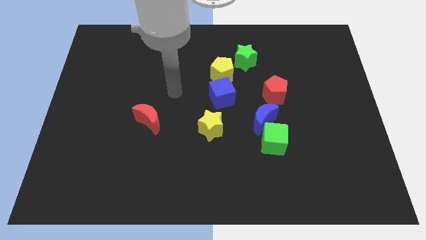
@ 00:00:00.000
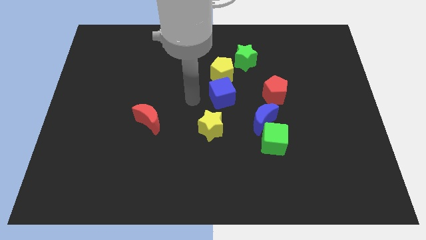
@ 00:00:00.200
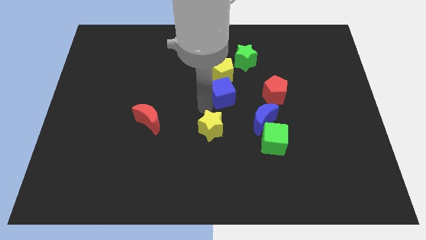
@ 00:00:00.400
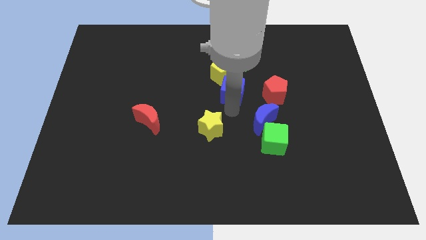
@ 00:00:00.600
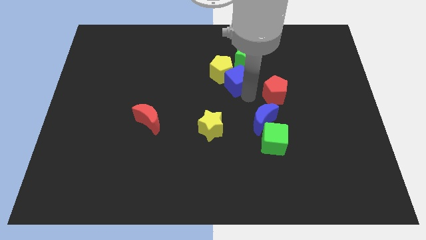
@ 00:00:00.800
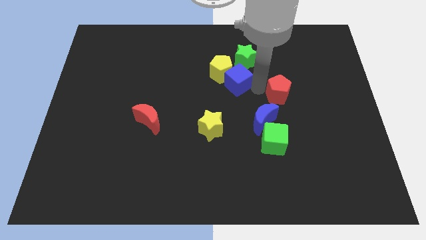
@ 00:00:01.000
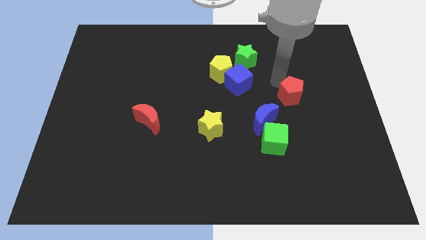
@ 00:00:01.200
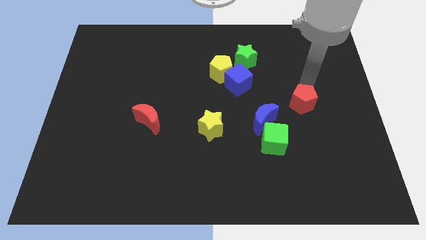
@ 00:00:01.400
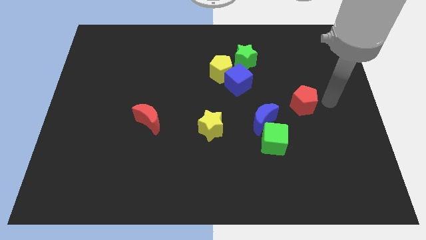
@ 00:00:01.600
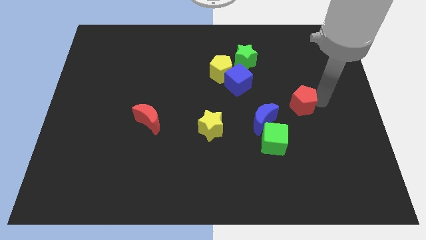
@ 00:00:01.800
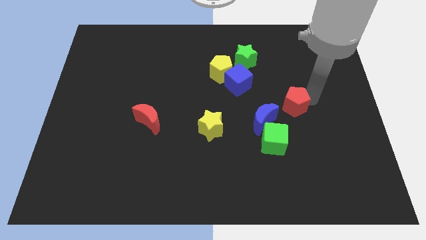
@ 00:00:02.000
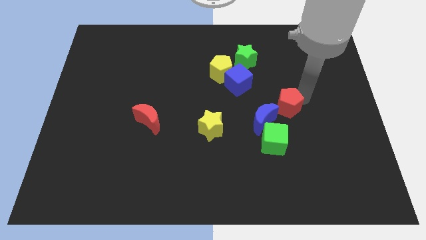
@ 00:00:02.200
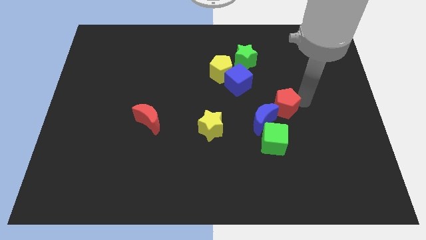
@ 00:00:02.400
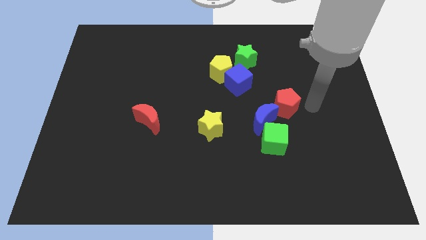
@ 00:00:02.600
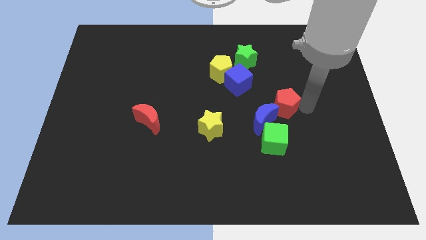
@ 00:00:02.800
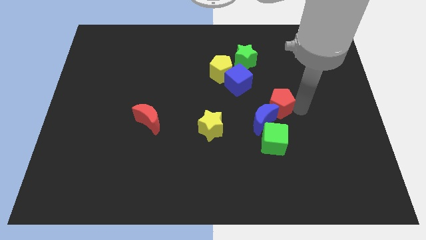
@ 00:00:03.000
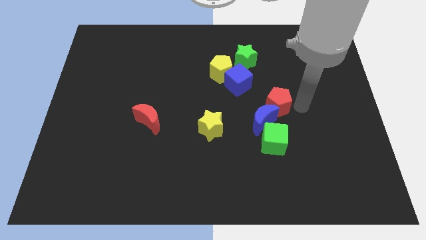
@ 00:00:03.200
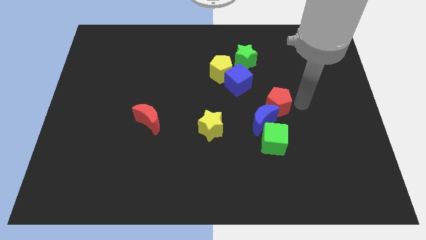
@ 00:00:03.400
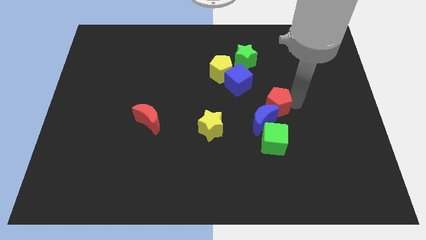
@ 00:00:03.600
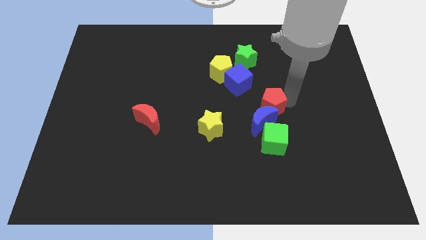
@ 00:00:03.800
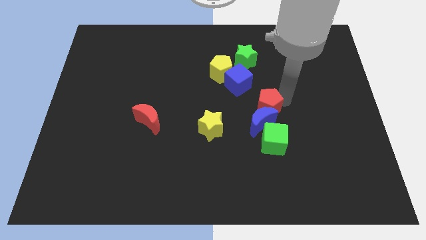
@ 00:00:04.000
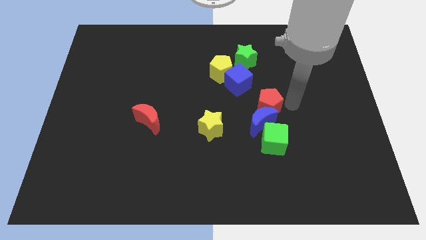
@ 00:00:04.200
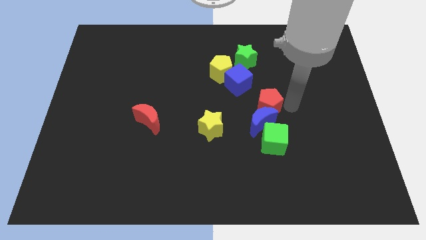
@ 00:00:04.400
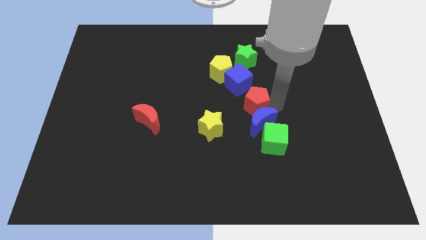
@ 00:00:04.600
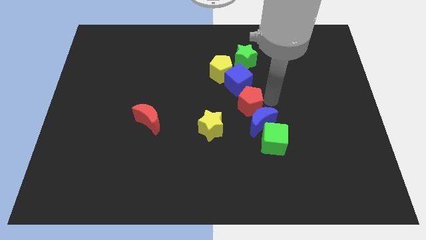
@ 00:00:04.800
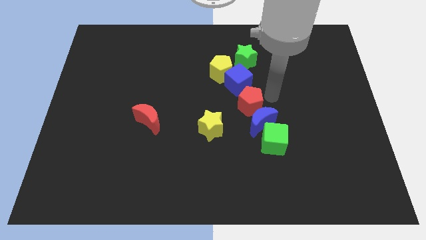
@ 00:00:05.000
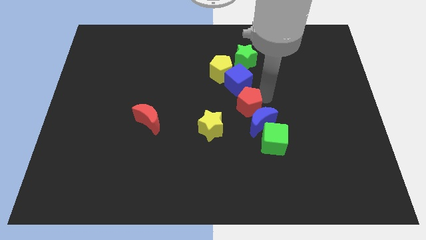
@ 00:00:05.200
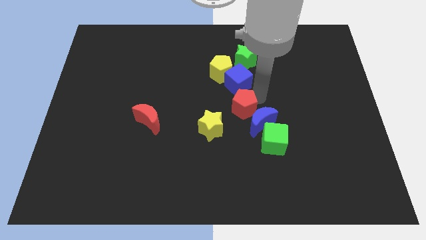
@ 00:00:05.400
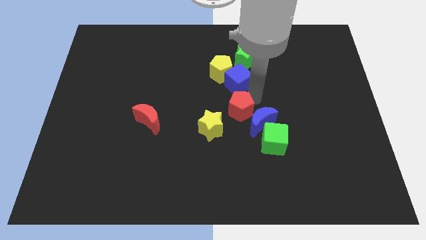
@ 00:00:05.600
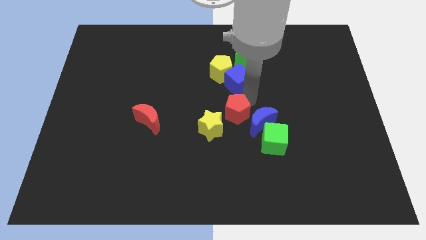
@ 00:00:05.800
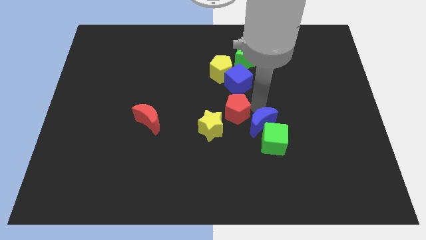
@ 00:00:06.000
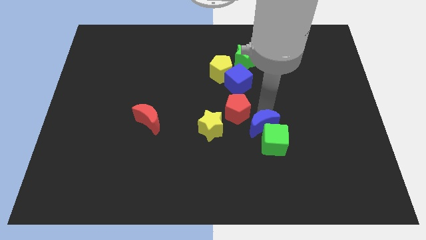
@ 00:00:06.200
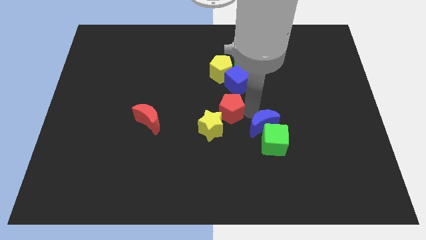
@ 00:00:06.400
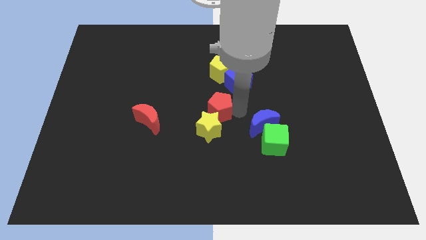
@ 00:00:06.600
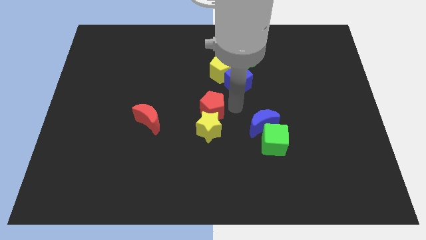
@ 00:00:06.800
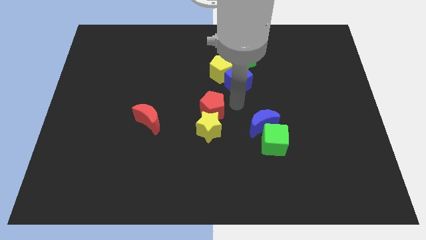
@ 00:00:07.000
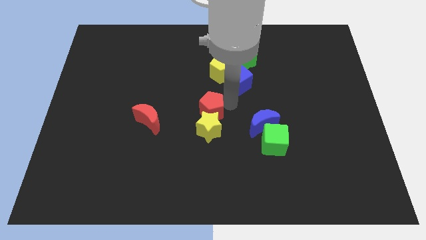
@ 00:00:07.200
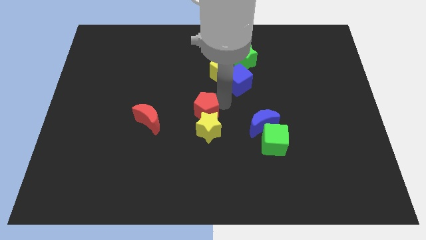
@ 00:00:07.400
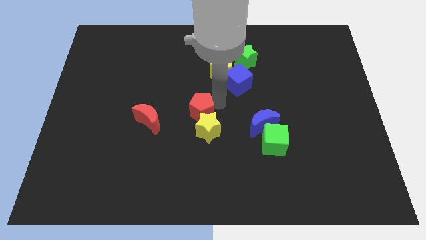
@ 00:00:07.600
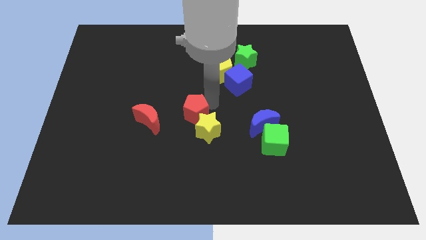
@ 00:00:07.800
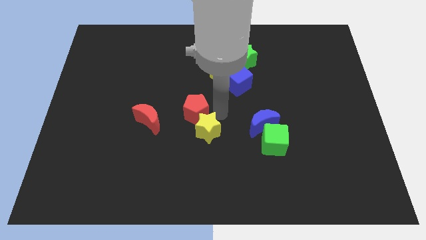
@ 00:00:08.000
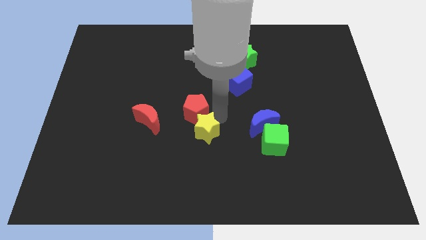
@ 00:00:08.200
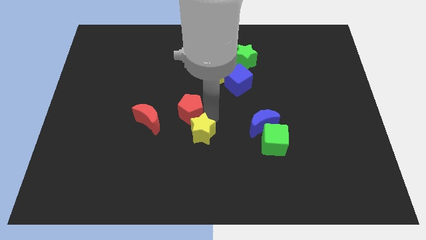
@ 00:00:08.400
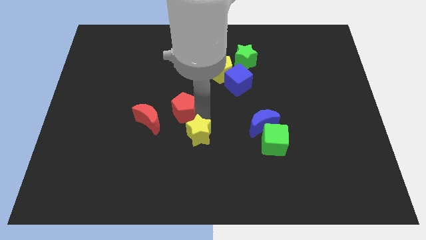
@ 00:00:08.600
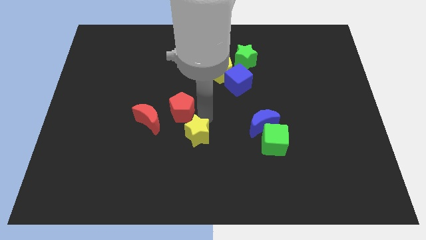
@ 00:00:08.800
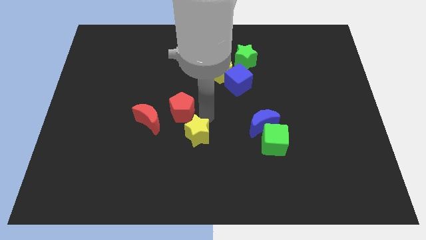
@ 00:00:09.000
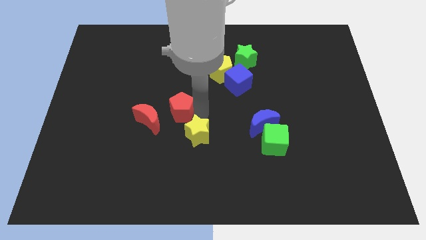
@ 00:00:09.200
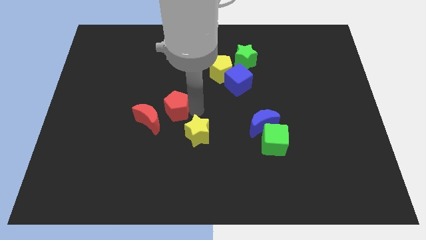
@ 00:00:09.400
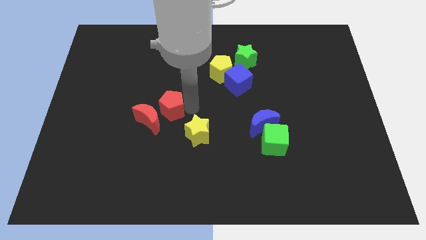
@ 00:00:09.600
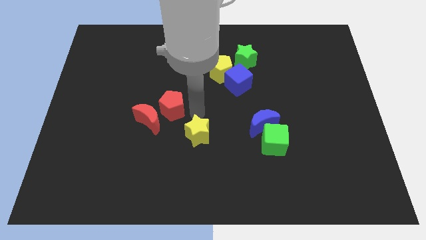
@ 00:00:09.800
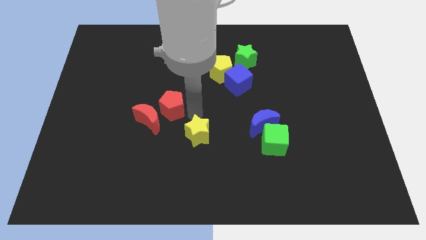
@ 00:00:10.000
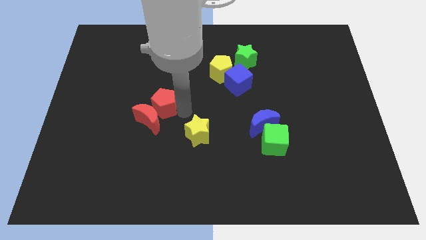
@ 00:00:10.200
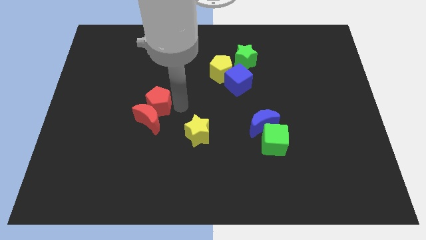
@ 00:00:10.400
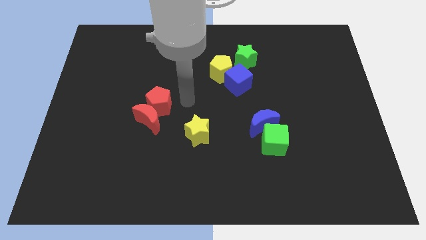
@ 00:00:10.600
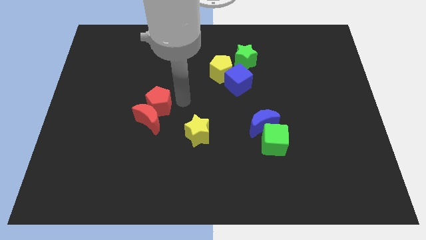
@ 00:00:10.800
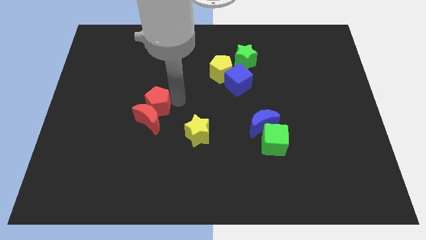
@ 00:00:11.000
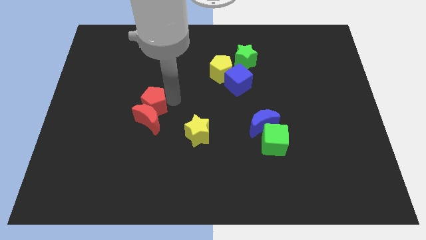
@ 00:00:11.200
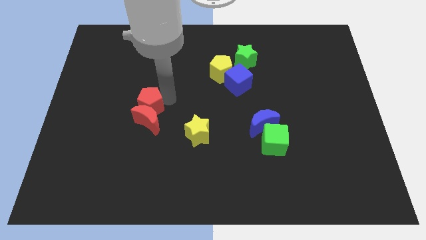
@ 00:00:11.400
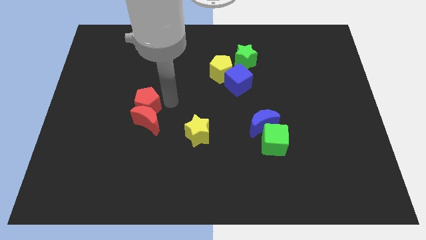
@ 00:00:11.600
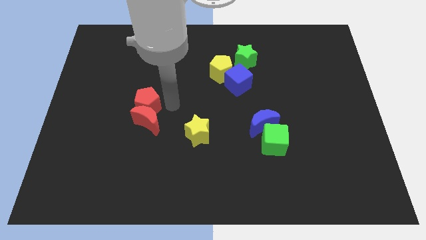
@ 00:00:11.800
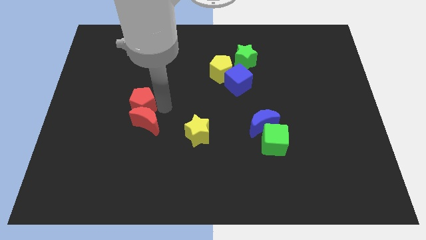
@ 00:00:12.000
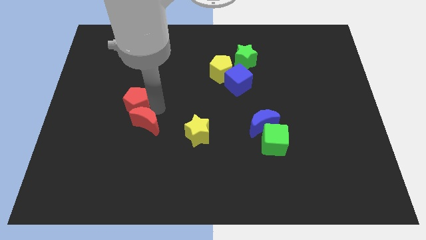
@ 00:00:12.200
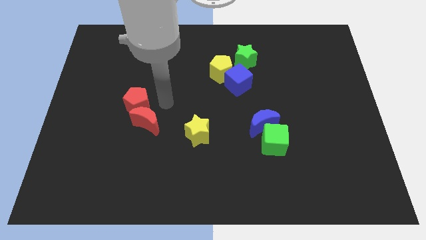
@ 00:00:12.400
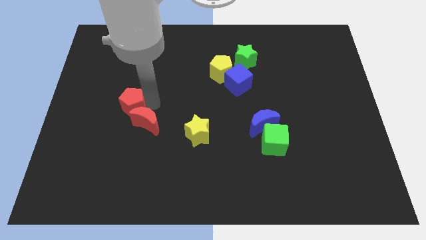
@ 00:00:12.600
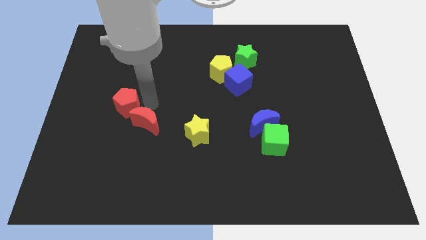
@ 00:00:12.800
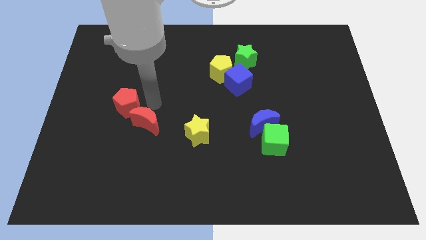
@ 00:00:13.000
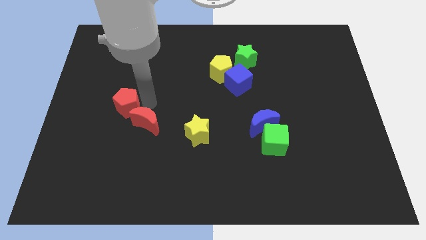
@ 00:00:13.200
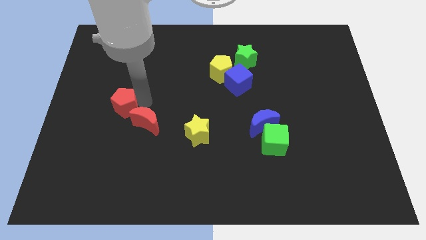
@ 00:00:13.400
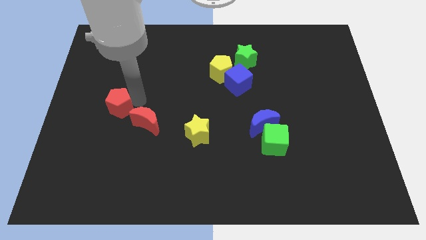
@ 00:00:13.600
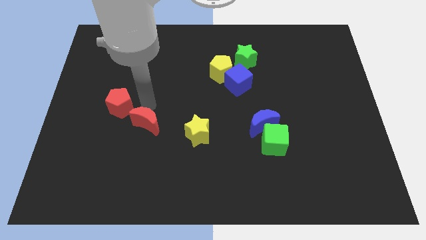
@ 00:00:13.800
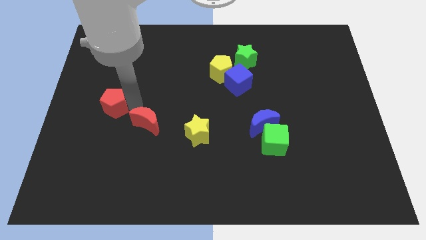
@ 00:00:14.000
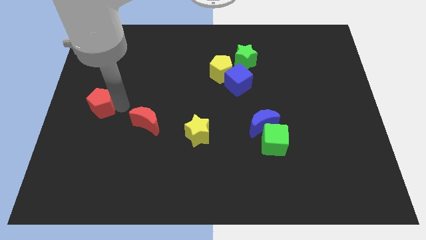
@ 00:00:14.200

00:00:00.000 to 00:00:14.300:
push the red pentagon to the left side of the board

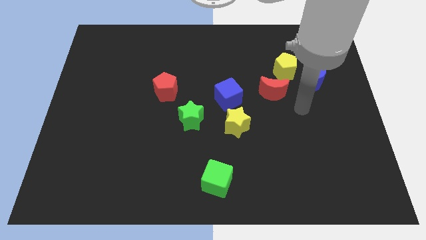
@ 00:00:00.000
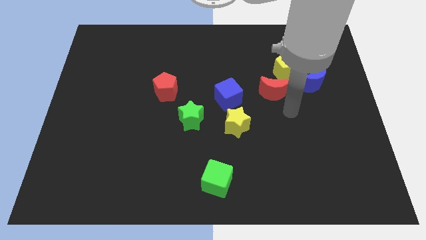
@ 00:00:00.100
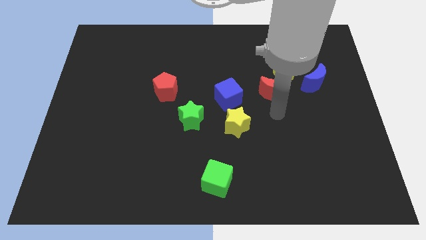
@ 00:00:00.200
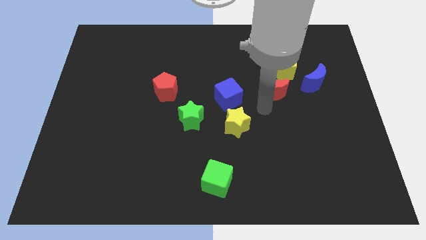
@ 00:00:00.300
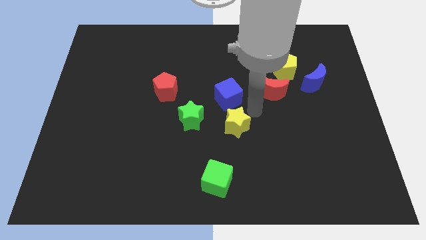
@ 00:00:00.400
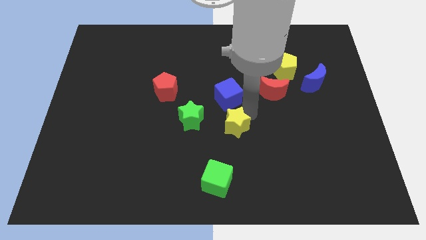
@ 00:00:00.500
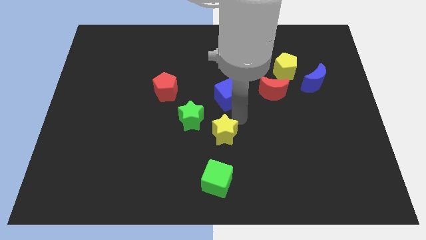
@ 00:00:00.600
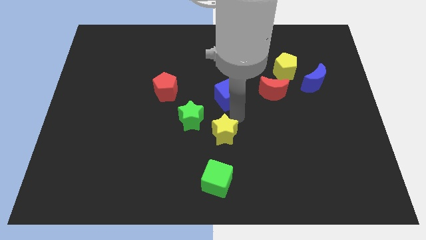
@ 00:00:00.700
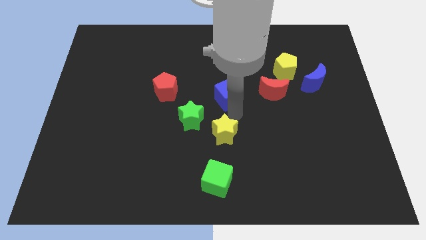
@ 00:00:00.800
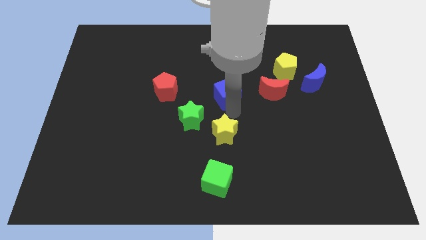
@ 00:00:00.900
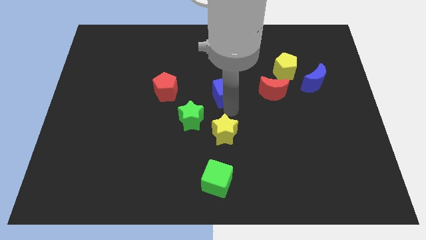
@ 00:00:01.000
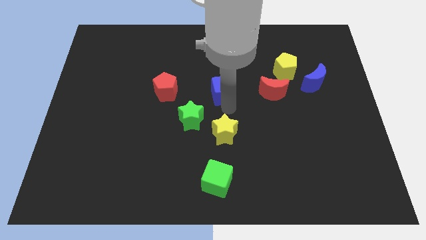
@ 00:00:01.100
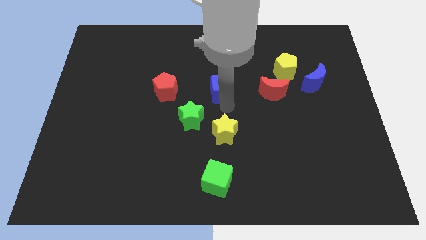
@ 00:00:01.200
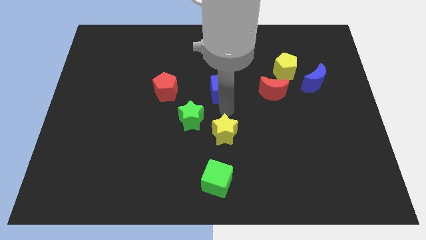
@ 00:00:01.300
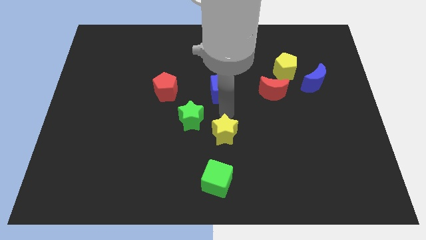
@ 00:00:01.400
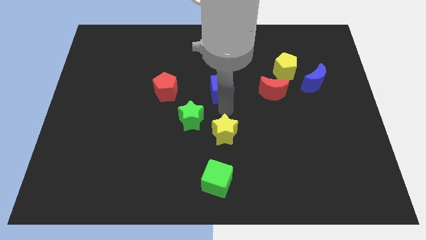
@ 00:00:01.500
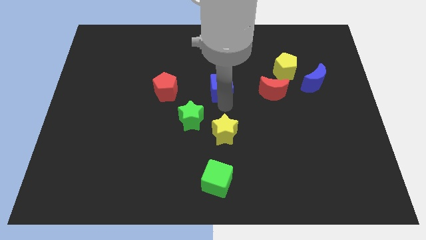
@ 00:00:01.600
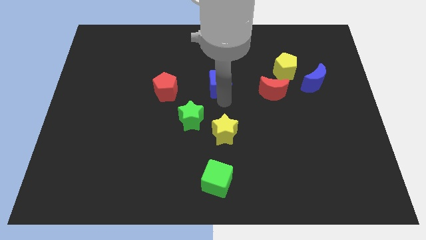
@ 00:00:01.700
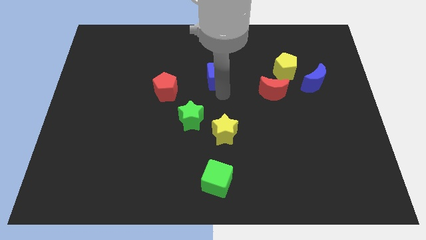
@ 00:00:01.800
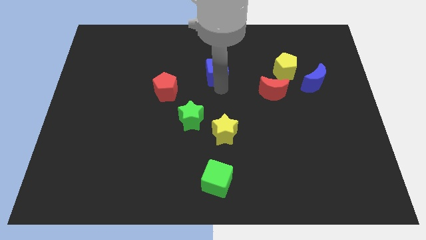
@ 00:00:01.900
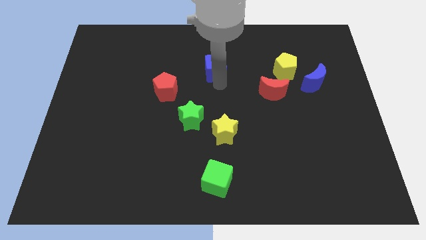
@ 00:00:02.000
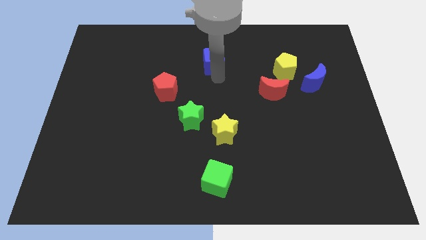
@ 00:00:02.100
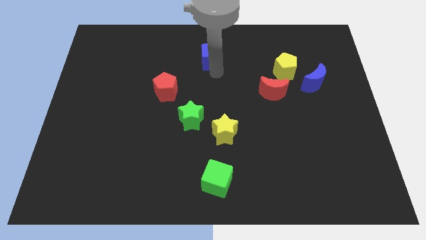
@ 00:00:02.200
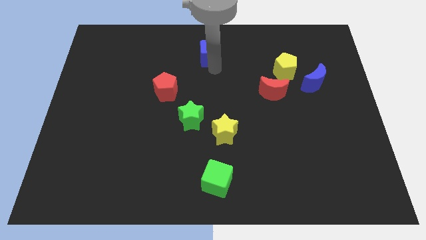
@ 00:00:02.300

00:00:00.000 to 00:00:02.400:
put the blue cube to the towards your base
